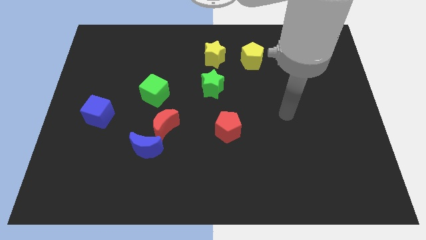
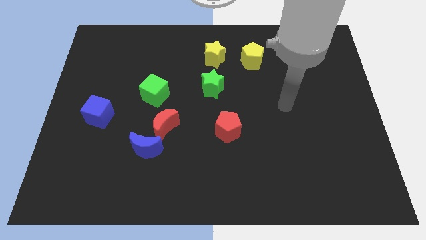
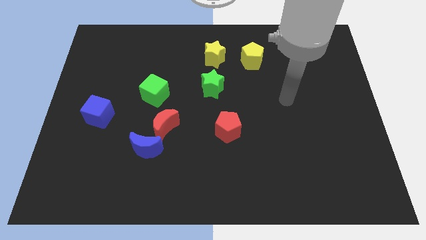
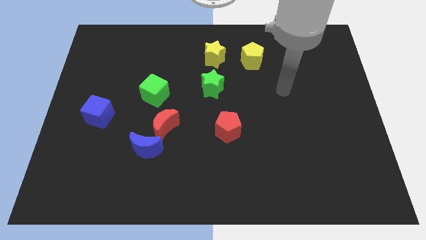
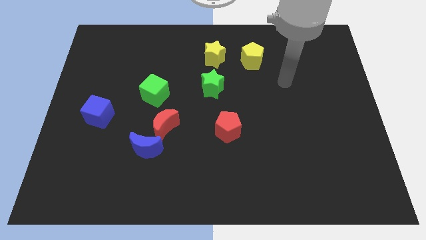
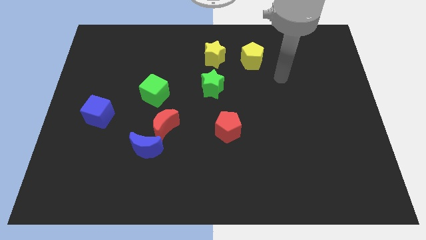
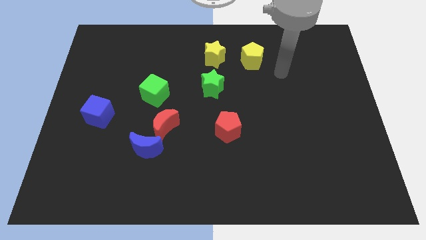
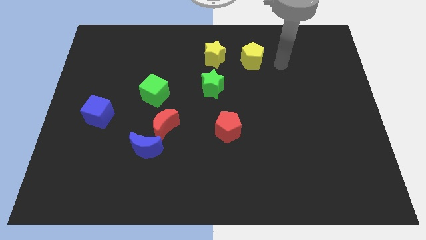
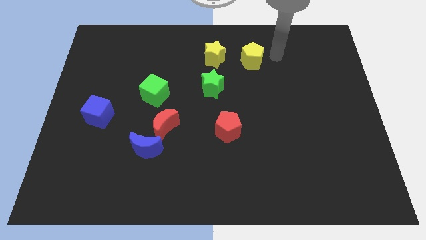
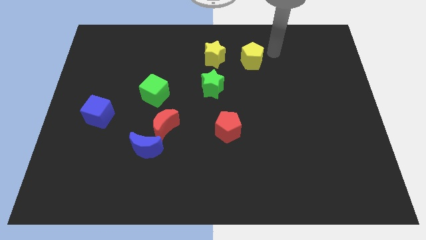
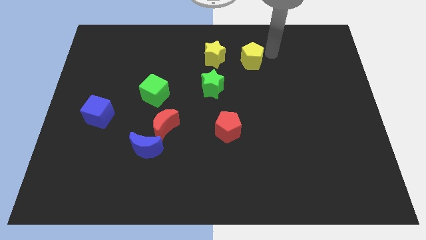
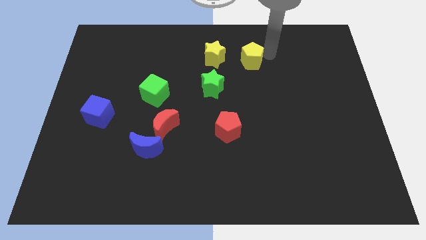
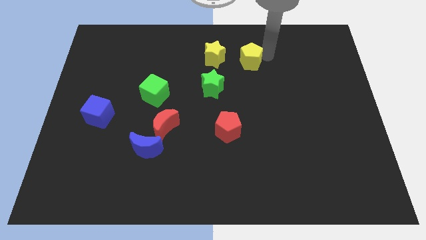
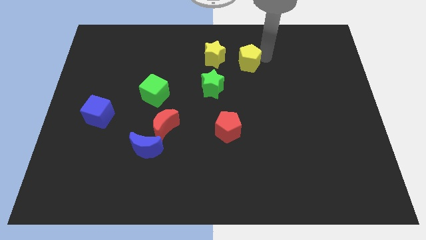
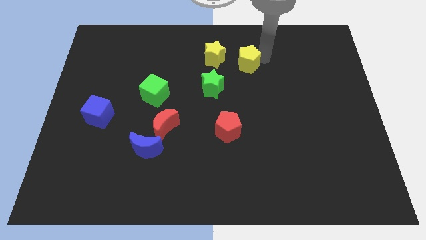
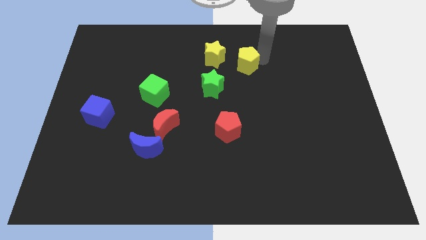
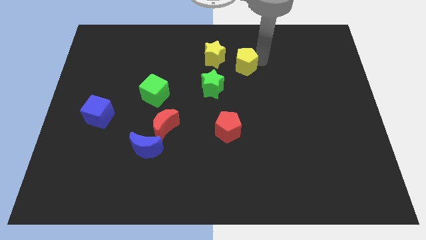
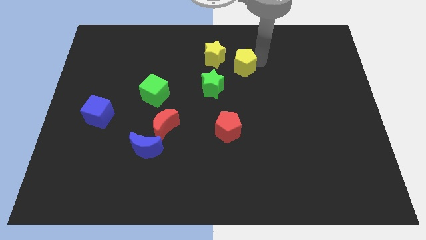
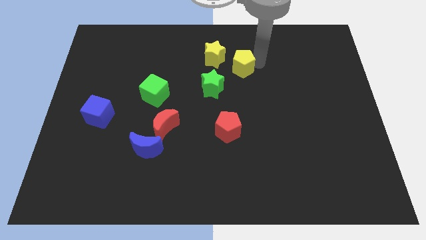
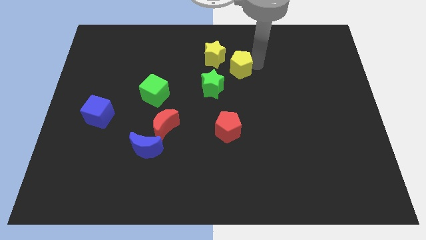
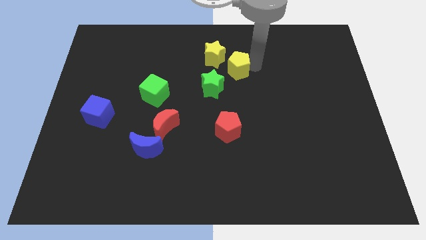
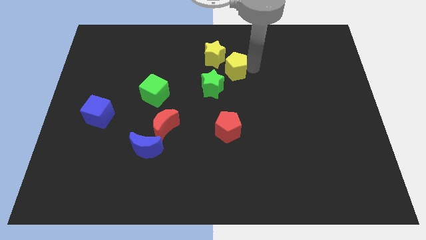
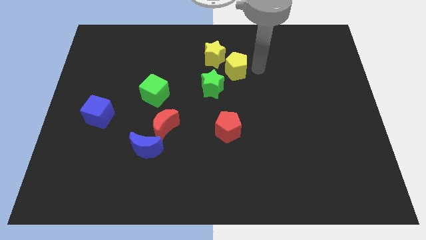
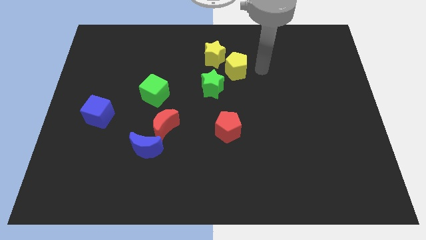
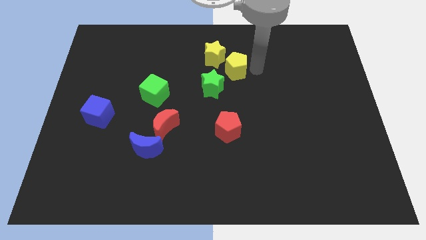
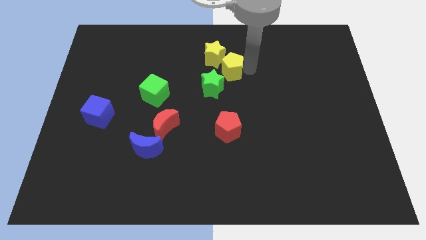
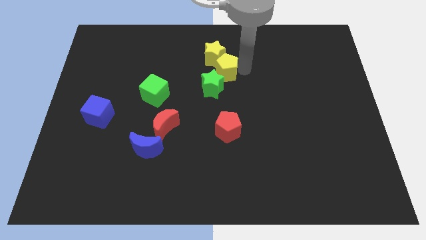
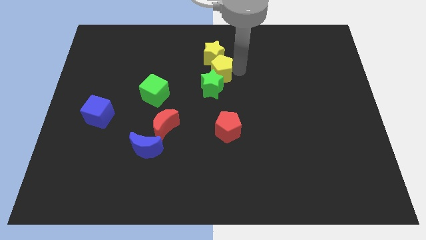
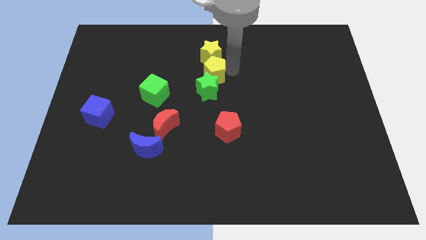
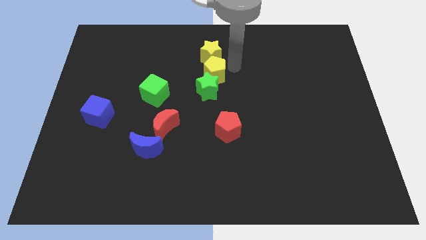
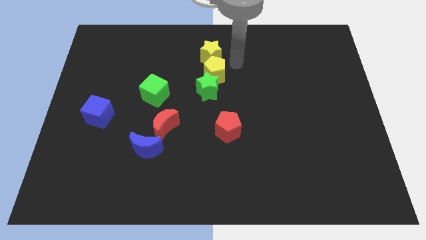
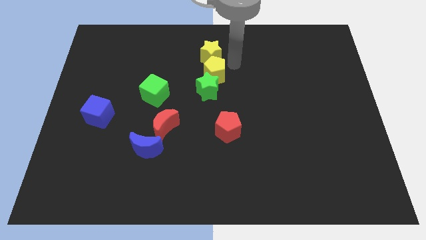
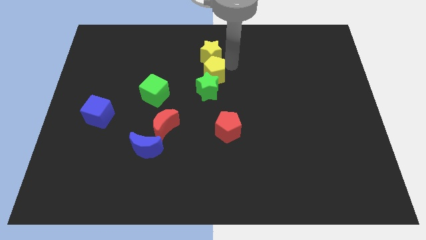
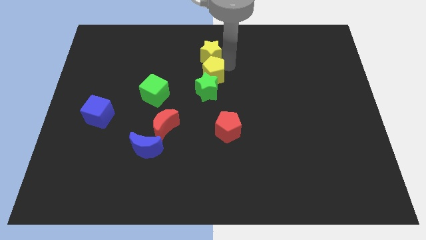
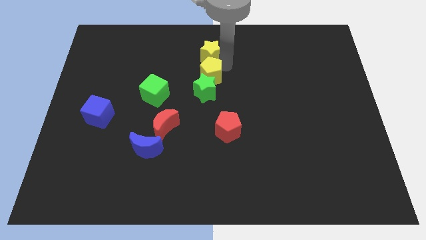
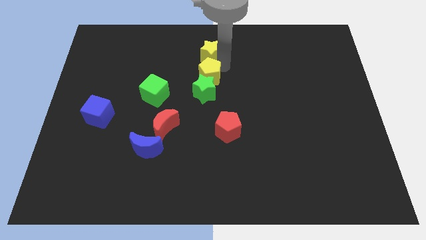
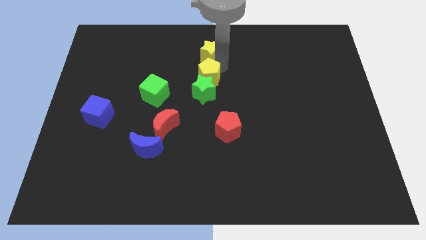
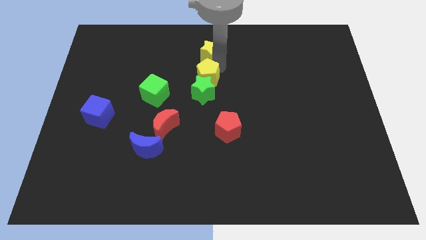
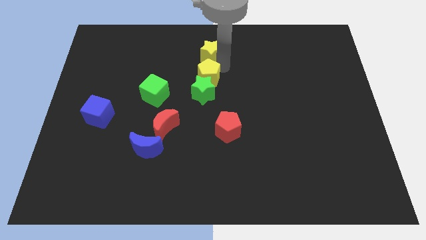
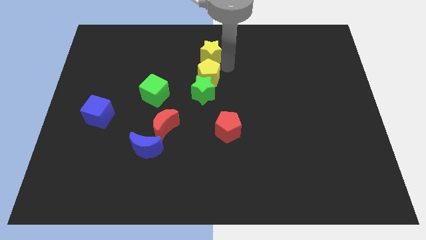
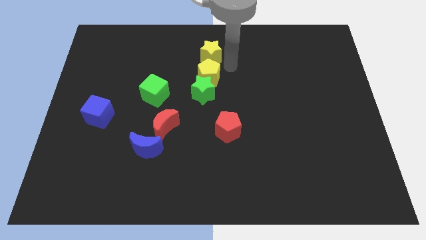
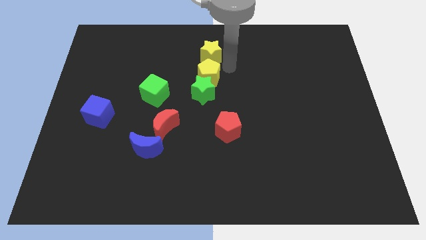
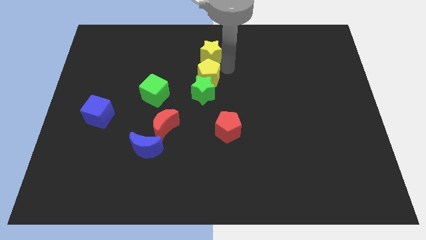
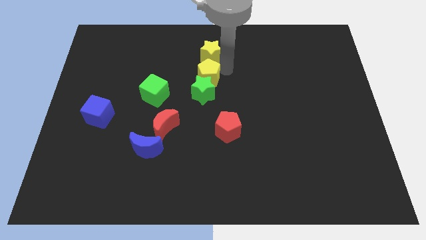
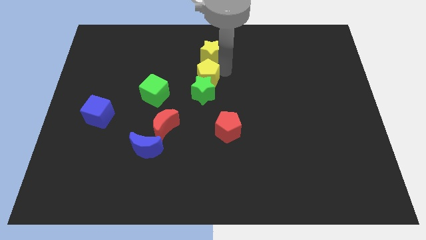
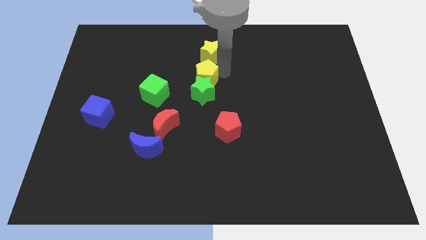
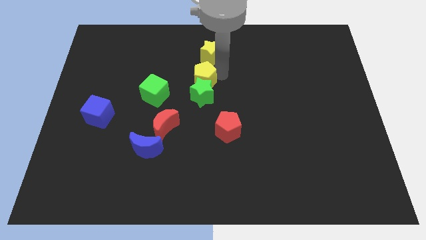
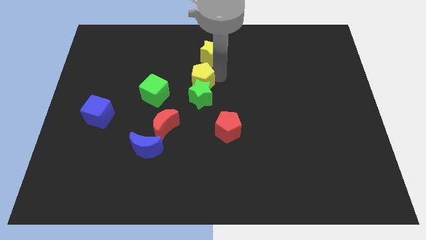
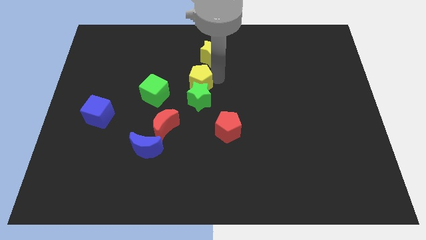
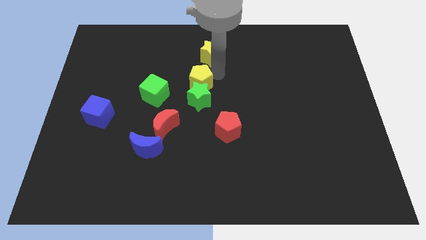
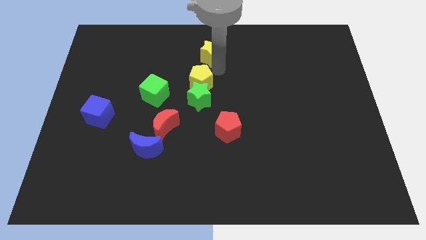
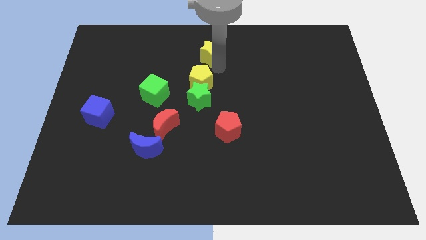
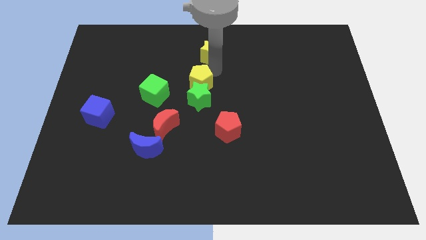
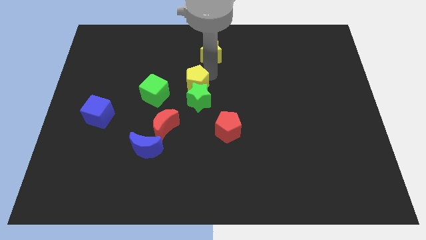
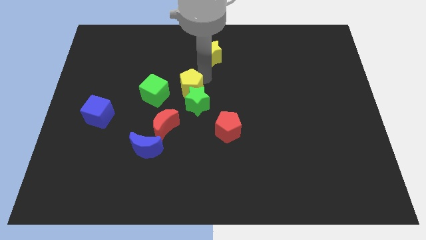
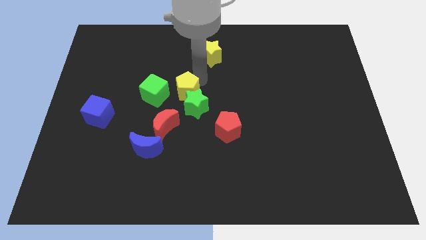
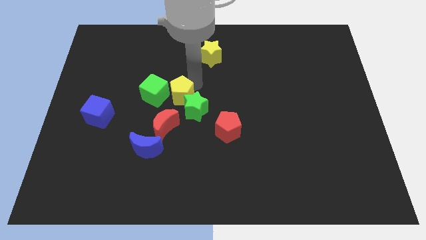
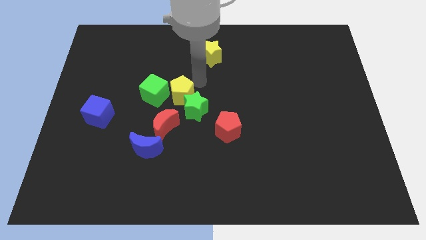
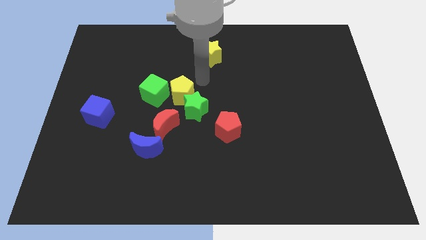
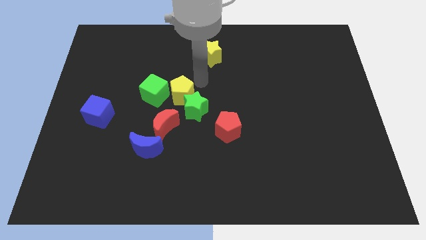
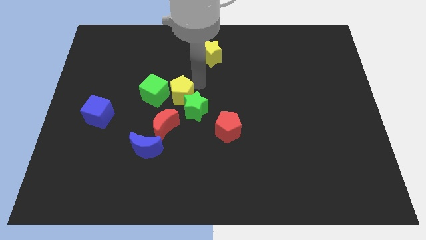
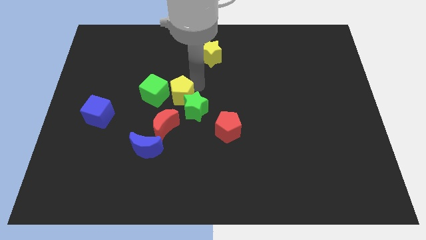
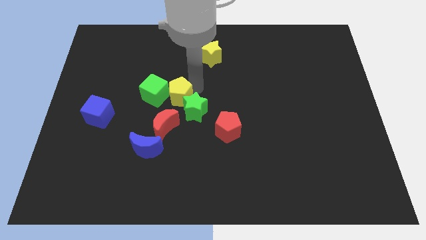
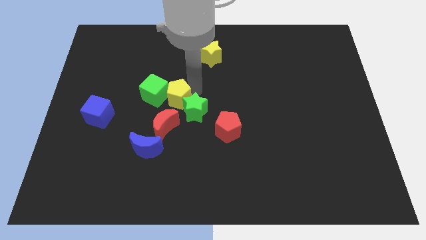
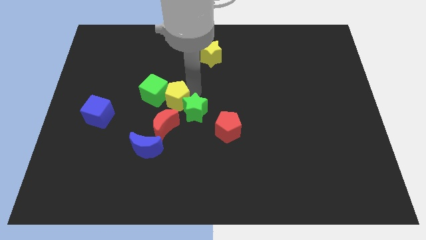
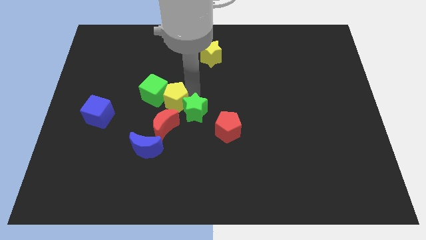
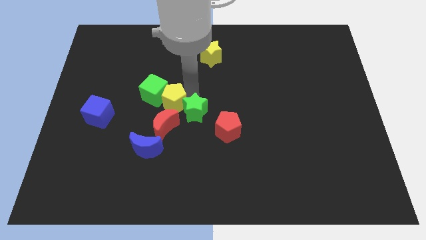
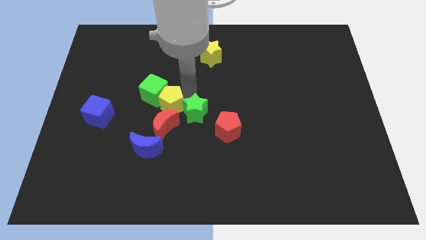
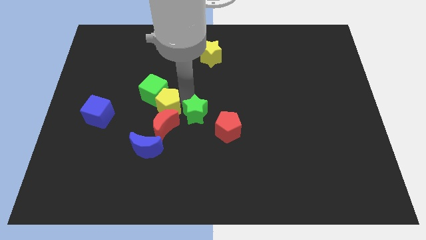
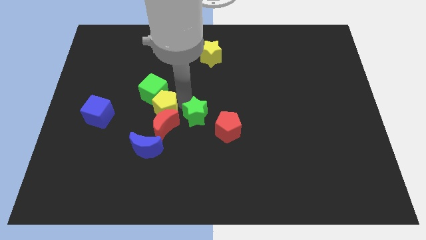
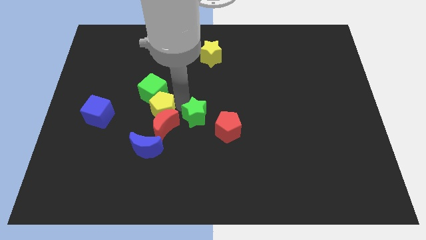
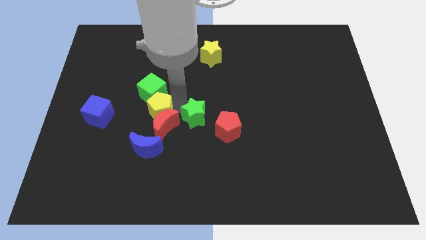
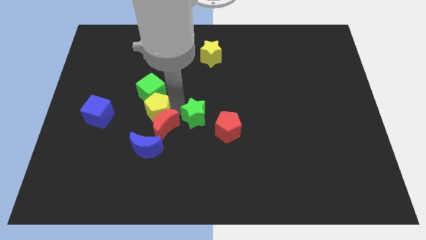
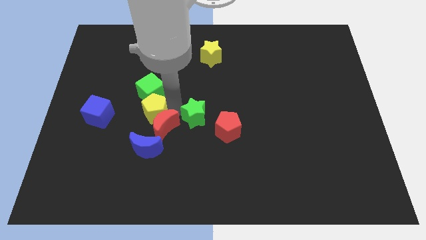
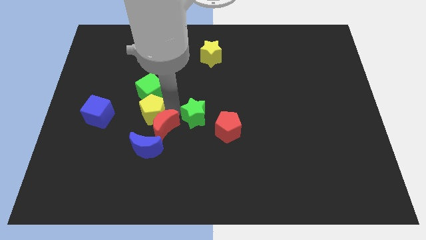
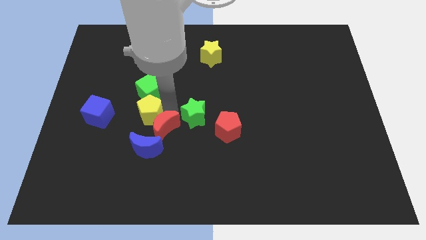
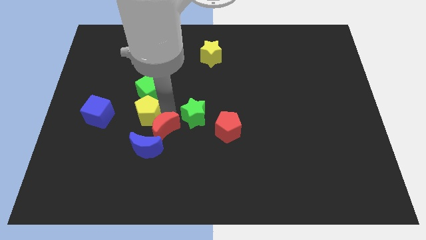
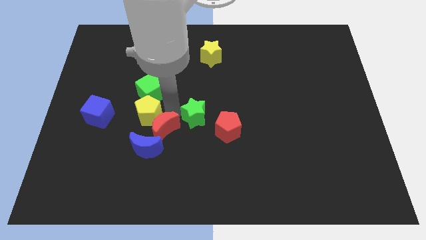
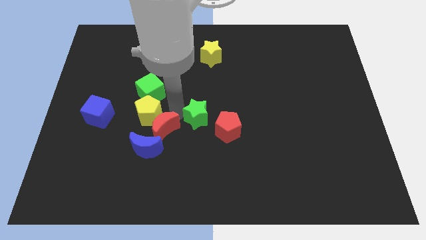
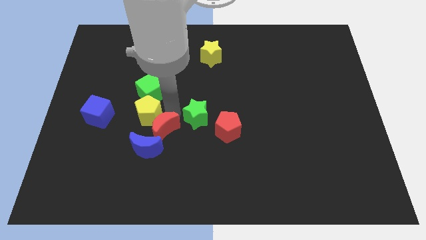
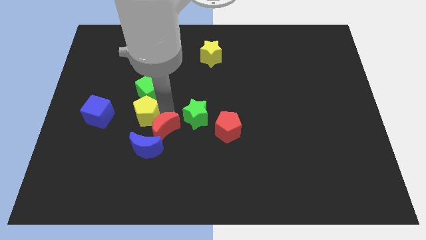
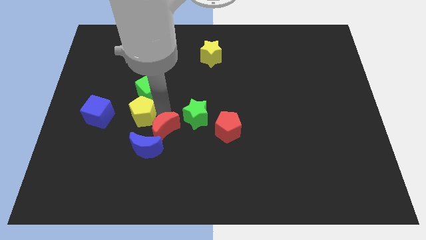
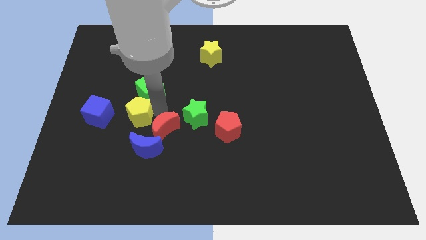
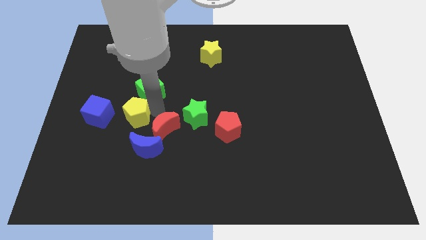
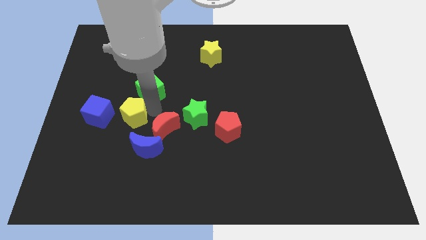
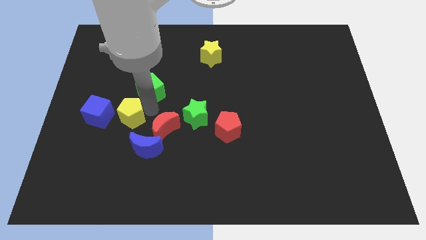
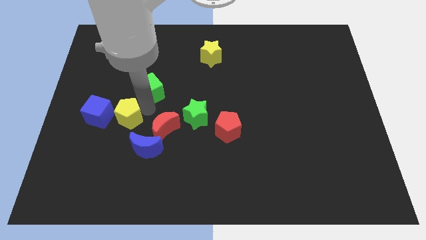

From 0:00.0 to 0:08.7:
push the yellow pentagon diagonally down and to the right of the blue cube
